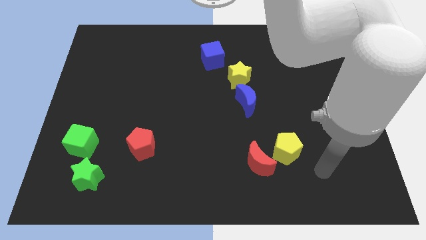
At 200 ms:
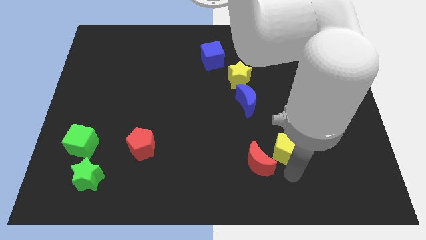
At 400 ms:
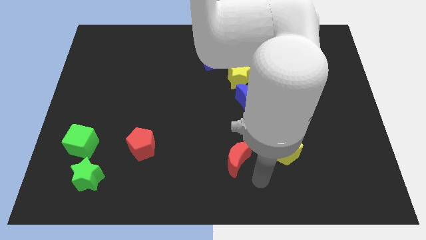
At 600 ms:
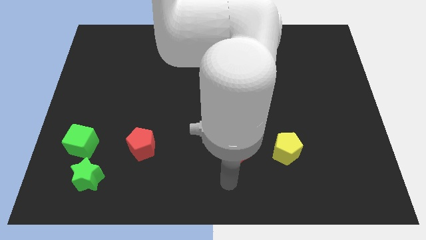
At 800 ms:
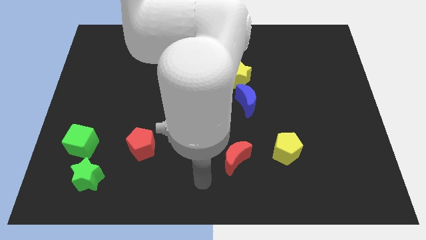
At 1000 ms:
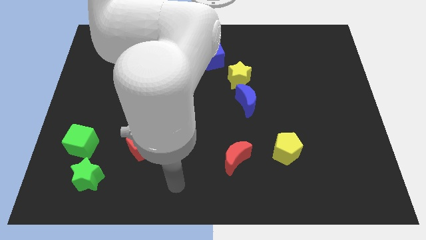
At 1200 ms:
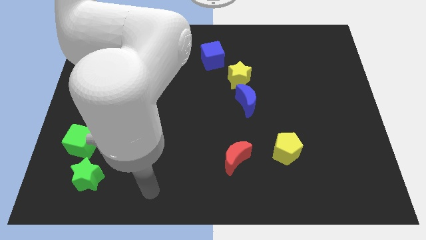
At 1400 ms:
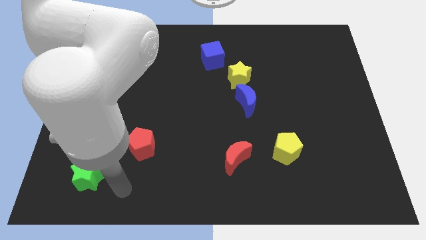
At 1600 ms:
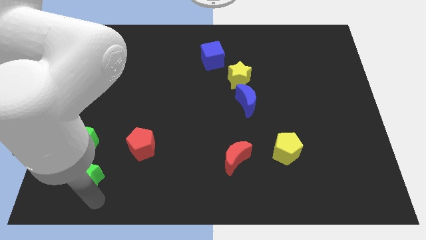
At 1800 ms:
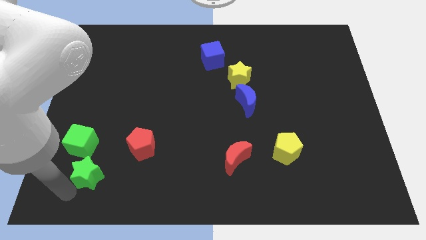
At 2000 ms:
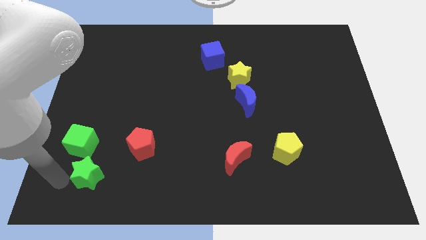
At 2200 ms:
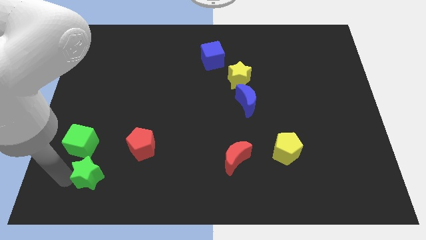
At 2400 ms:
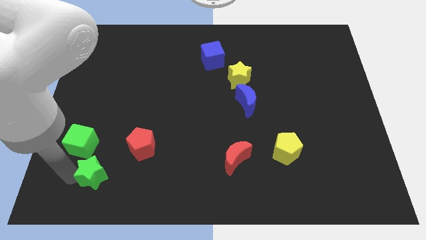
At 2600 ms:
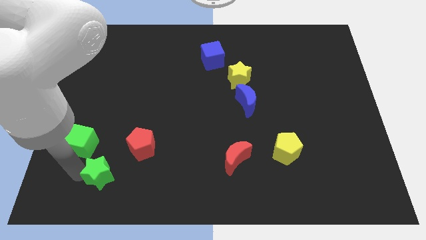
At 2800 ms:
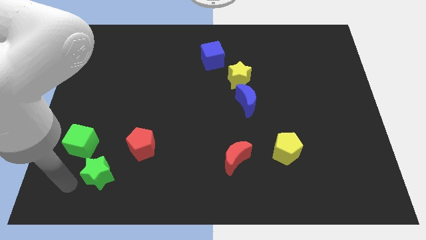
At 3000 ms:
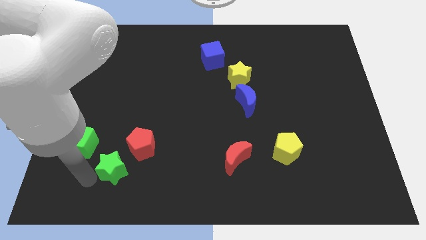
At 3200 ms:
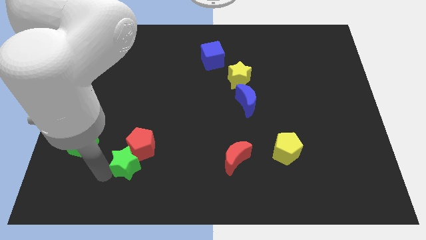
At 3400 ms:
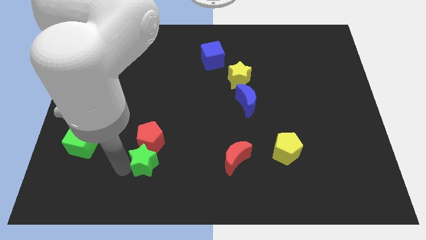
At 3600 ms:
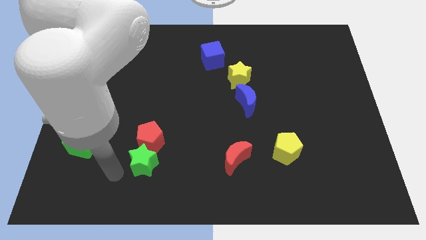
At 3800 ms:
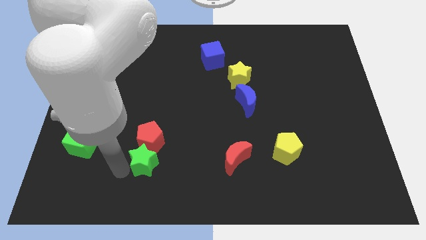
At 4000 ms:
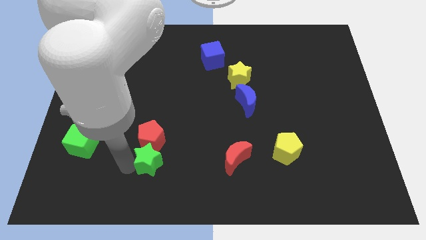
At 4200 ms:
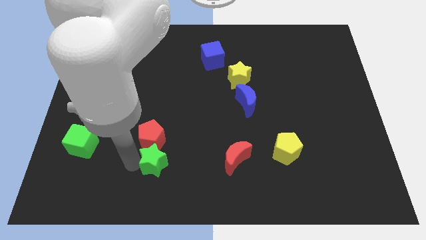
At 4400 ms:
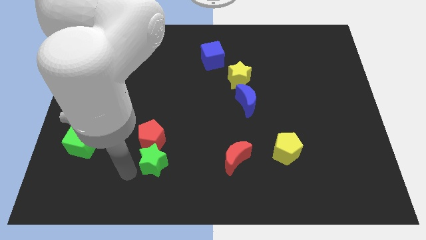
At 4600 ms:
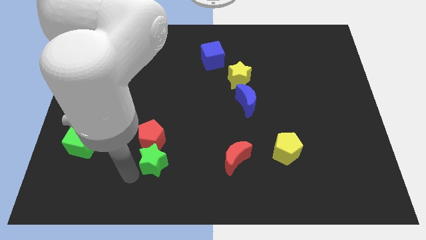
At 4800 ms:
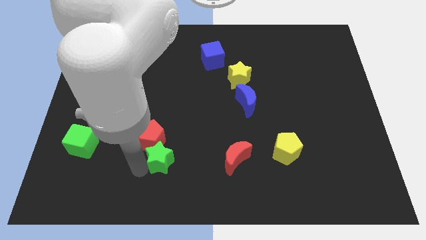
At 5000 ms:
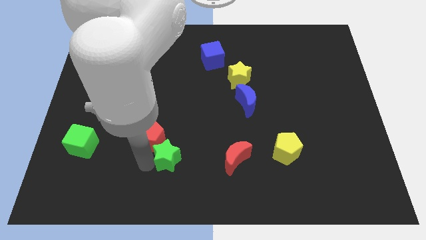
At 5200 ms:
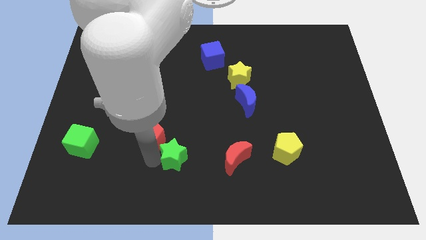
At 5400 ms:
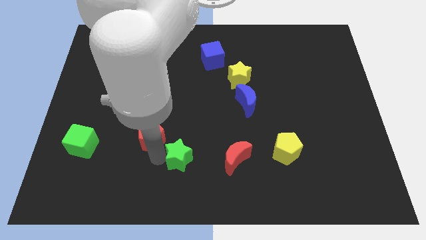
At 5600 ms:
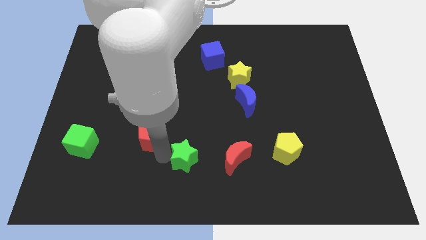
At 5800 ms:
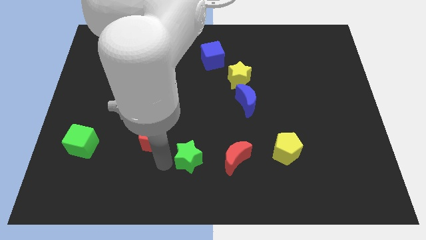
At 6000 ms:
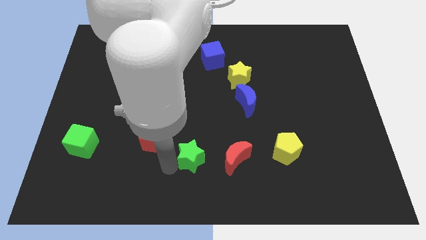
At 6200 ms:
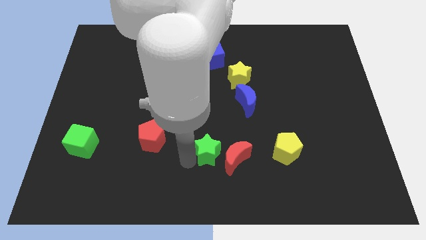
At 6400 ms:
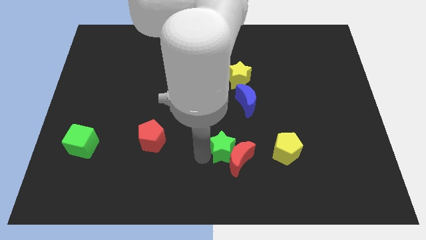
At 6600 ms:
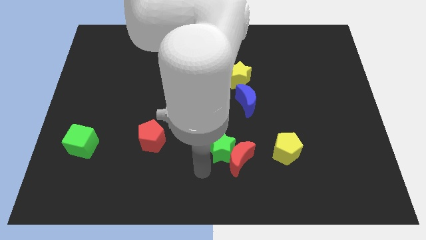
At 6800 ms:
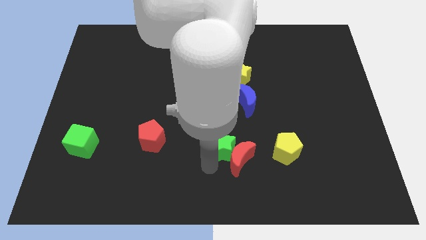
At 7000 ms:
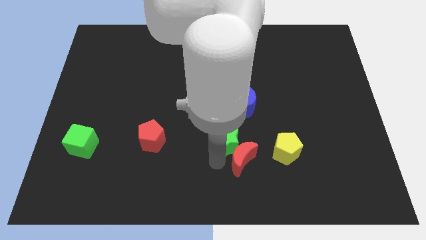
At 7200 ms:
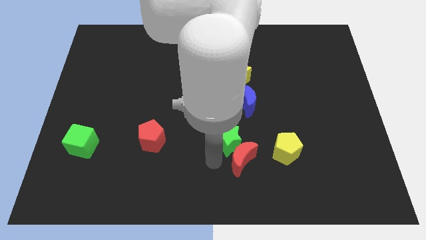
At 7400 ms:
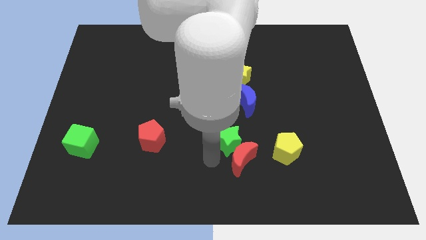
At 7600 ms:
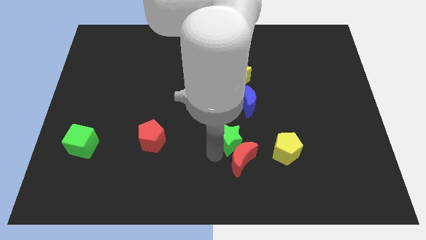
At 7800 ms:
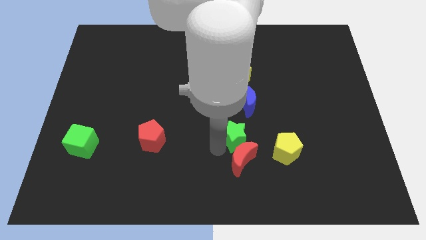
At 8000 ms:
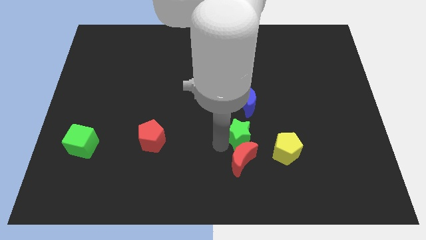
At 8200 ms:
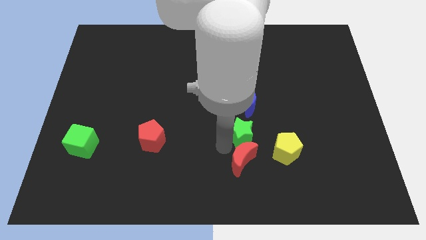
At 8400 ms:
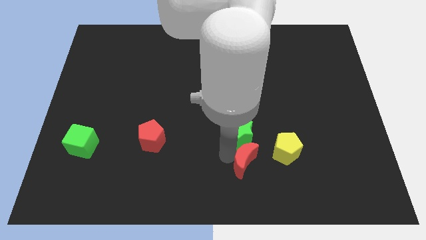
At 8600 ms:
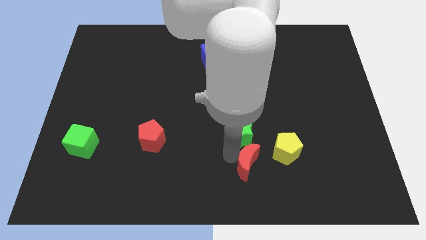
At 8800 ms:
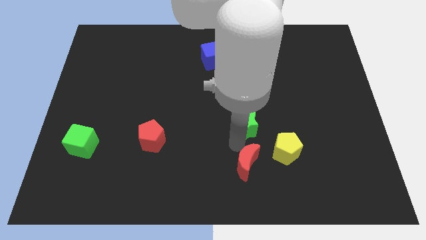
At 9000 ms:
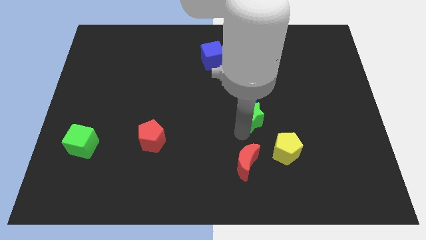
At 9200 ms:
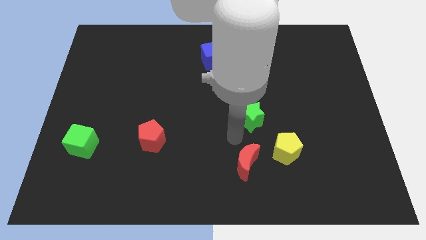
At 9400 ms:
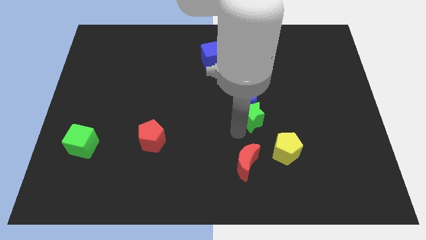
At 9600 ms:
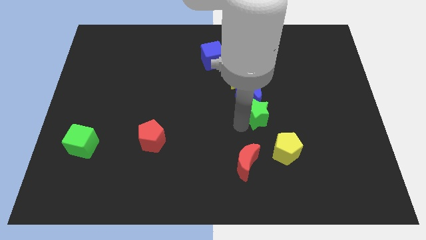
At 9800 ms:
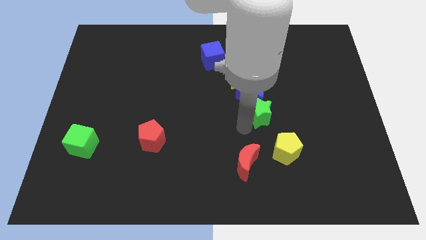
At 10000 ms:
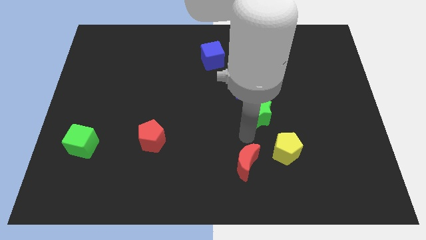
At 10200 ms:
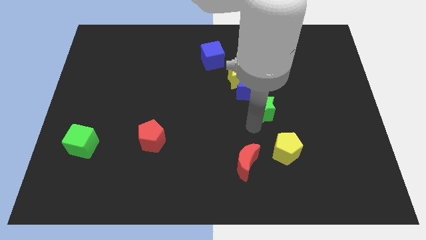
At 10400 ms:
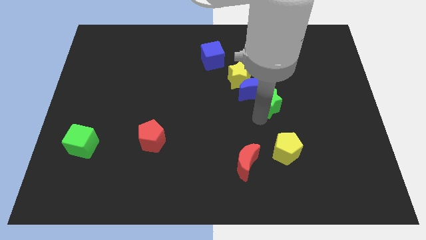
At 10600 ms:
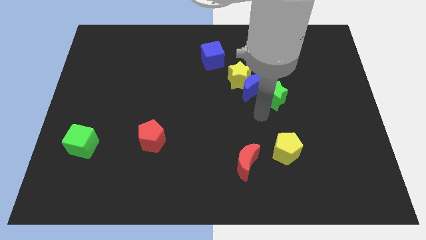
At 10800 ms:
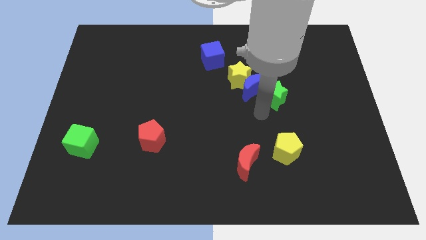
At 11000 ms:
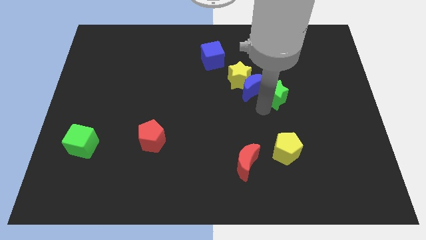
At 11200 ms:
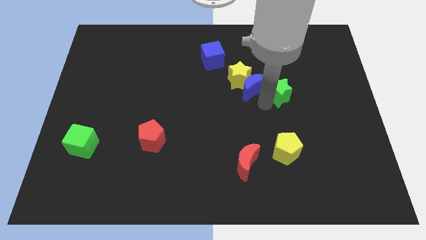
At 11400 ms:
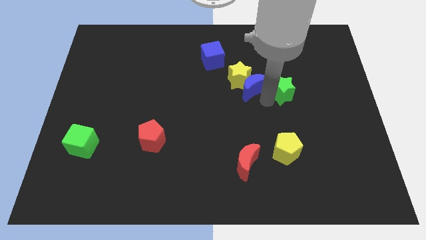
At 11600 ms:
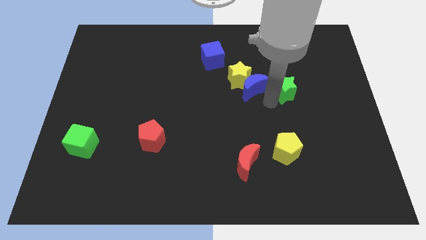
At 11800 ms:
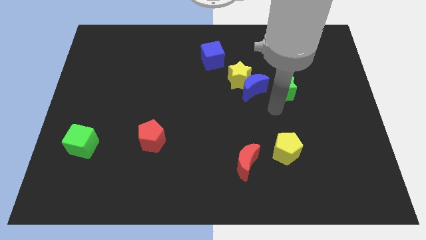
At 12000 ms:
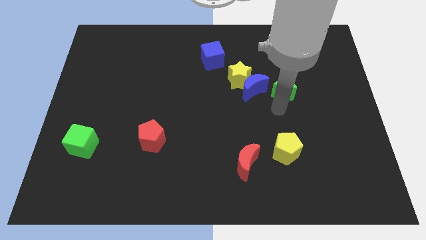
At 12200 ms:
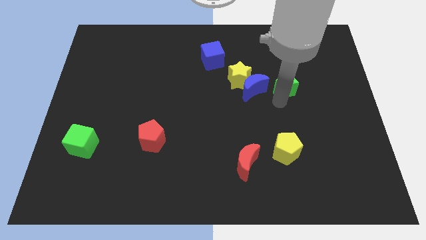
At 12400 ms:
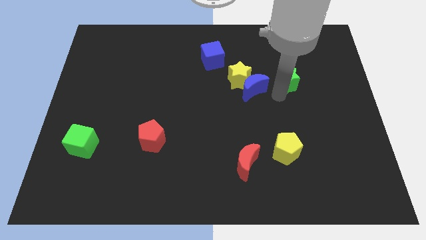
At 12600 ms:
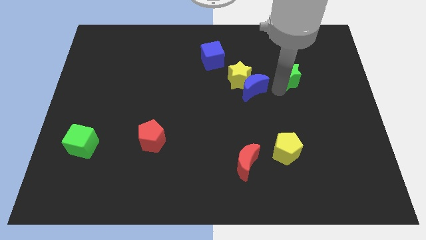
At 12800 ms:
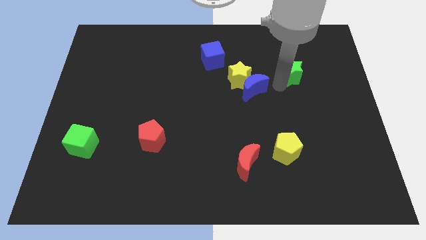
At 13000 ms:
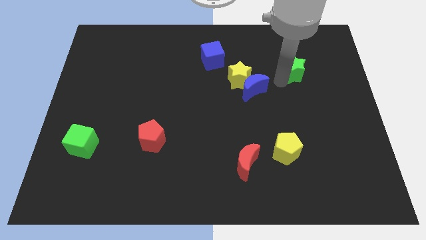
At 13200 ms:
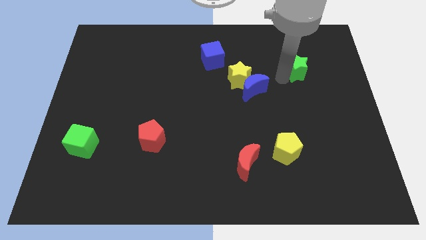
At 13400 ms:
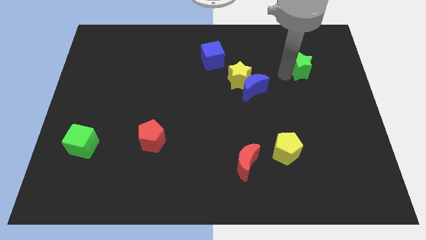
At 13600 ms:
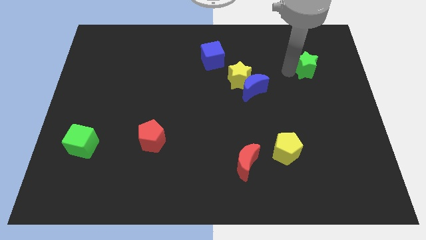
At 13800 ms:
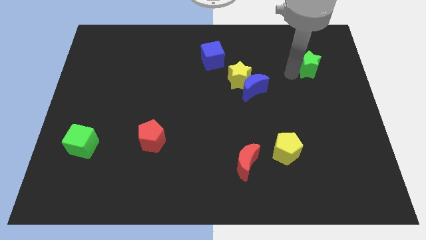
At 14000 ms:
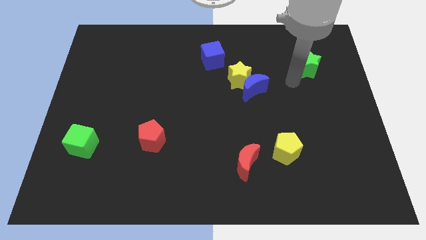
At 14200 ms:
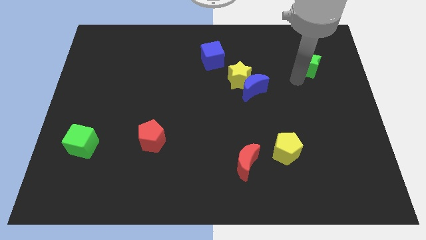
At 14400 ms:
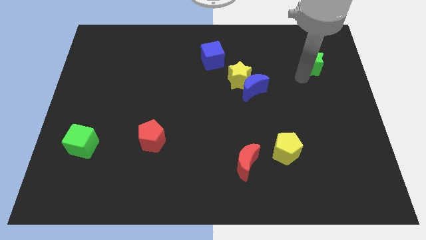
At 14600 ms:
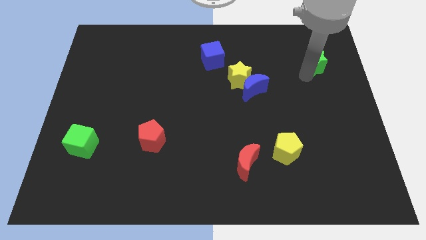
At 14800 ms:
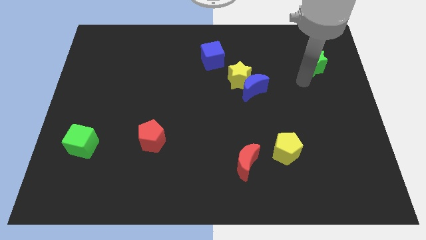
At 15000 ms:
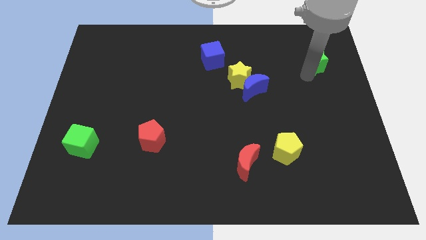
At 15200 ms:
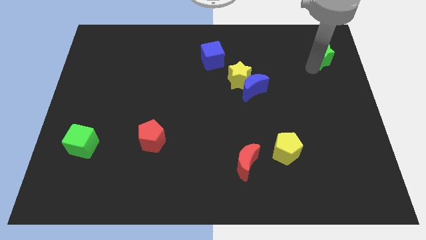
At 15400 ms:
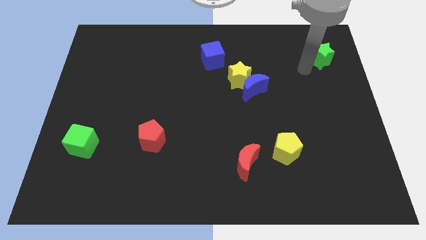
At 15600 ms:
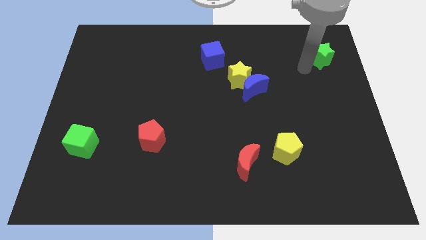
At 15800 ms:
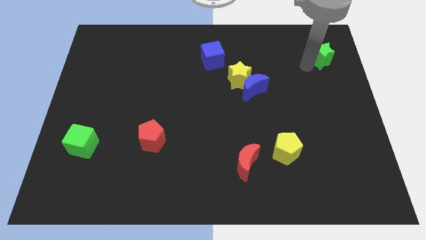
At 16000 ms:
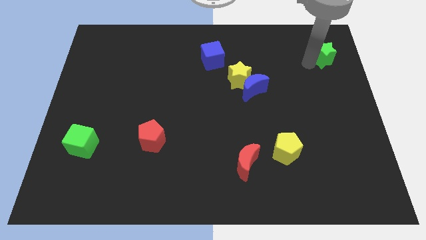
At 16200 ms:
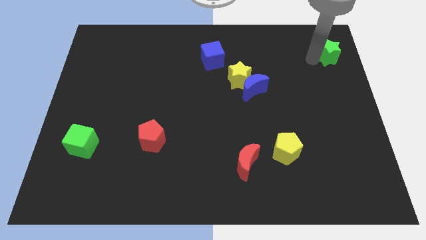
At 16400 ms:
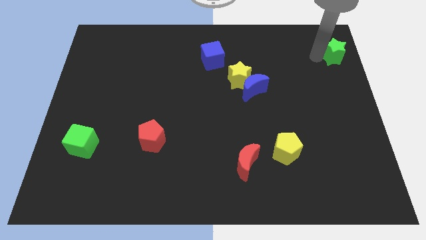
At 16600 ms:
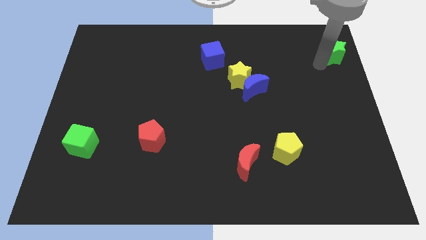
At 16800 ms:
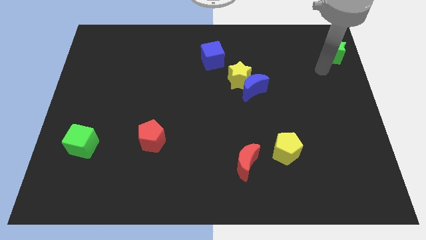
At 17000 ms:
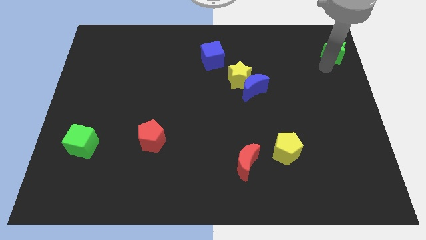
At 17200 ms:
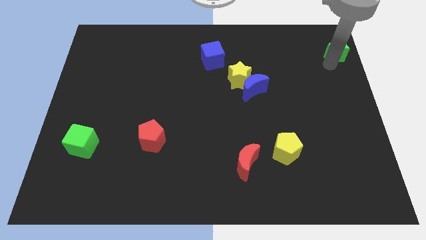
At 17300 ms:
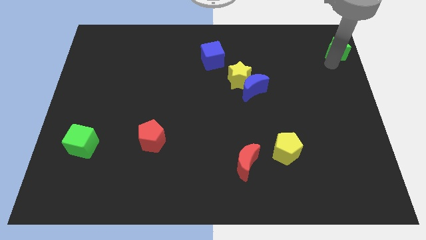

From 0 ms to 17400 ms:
move the green star to the top right corner
